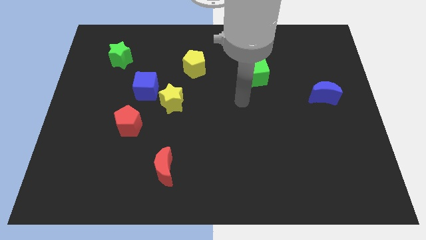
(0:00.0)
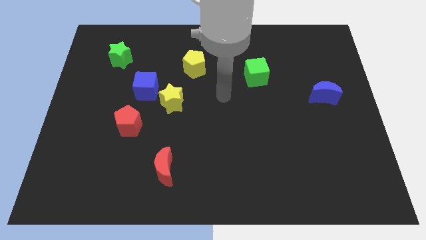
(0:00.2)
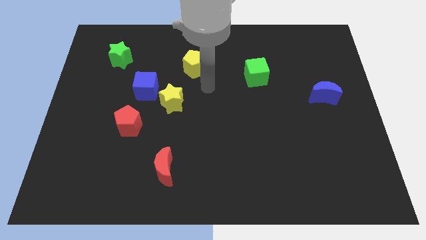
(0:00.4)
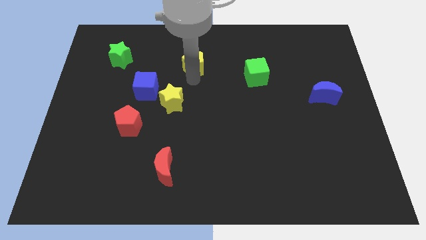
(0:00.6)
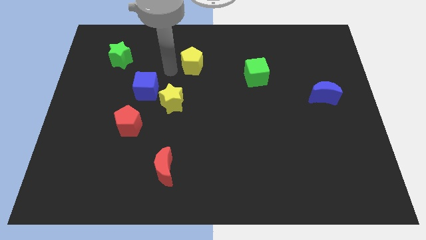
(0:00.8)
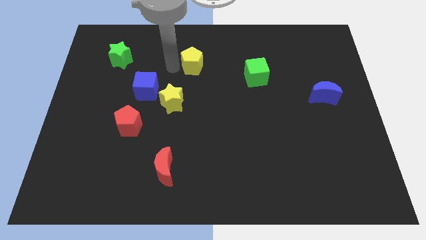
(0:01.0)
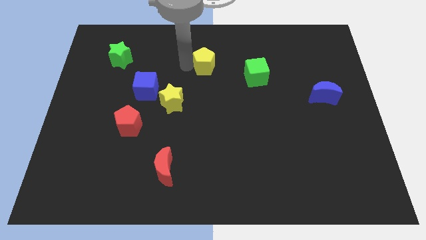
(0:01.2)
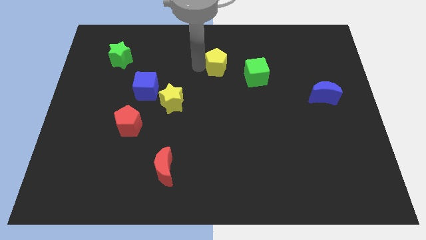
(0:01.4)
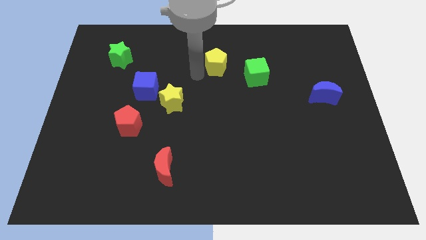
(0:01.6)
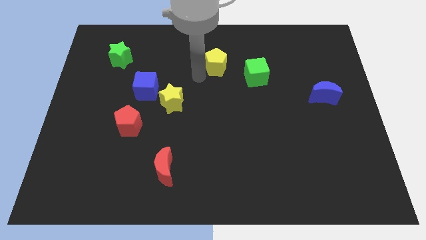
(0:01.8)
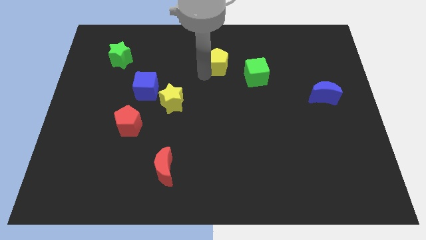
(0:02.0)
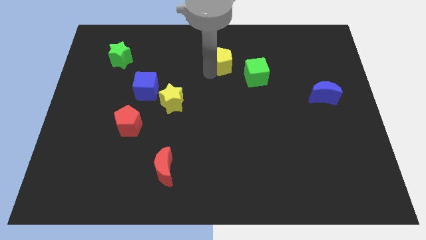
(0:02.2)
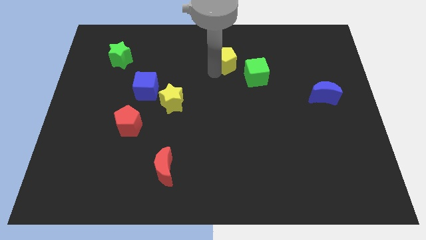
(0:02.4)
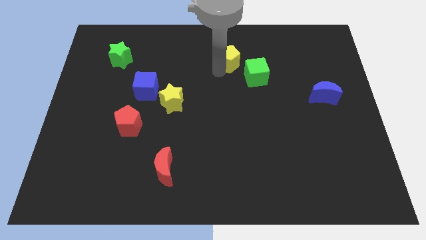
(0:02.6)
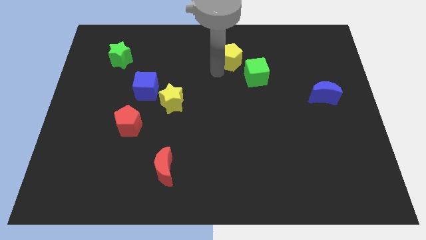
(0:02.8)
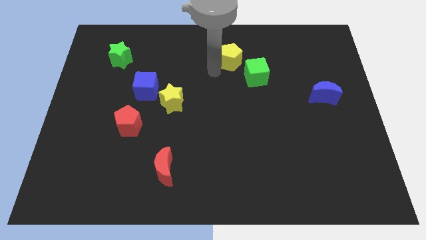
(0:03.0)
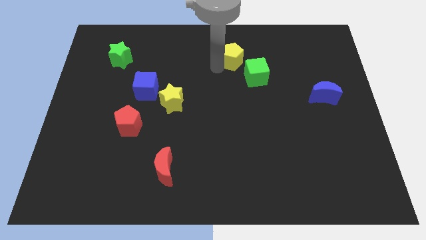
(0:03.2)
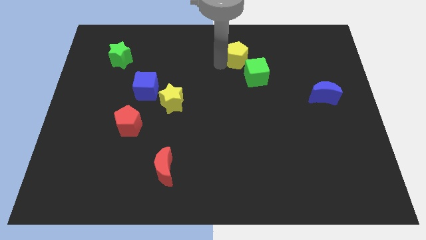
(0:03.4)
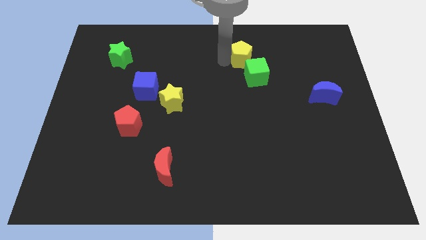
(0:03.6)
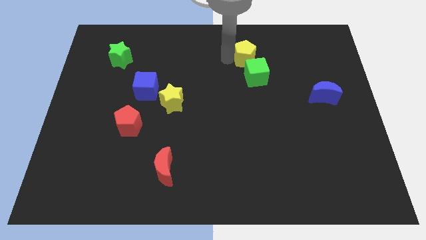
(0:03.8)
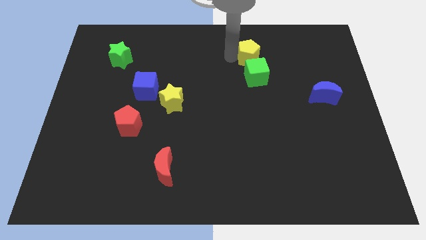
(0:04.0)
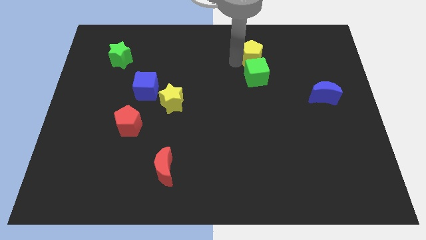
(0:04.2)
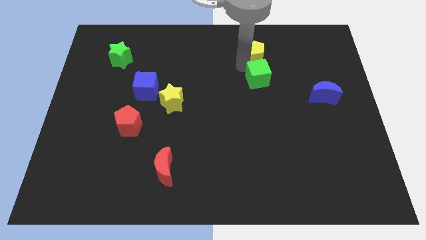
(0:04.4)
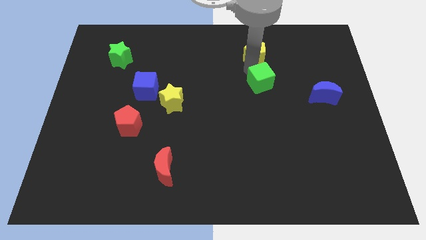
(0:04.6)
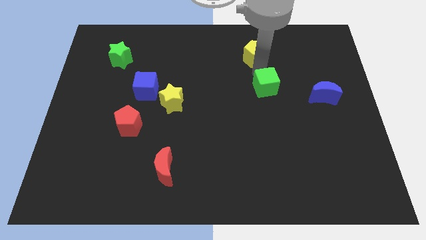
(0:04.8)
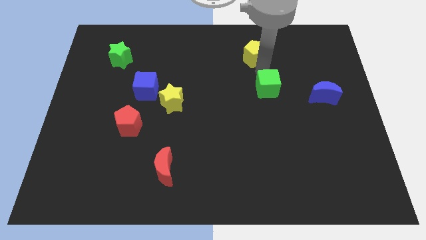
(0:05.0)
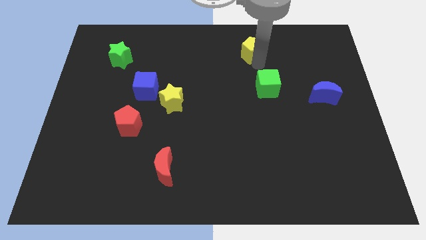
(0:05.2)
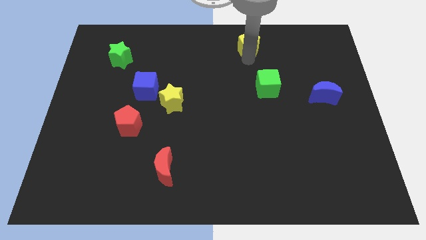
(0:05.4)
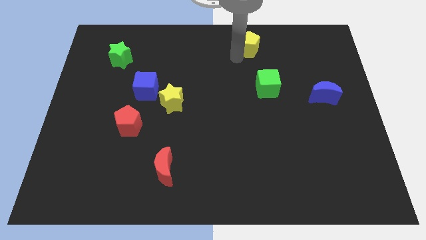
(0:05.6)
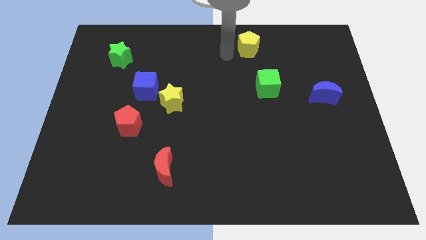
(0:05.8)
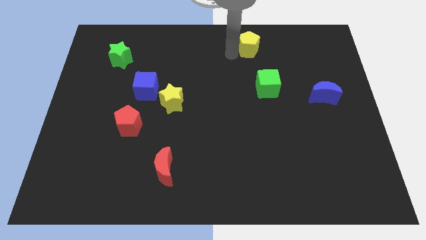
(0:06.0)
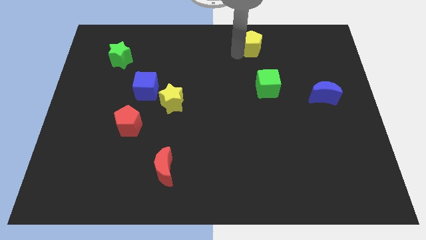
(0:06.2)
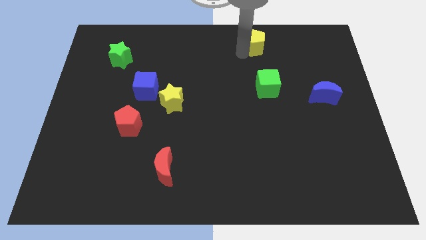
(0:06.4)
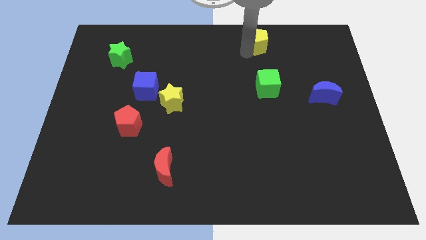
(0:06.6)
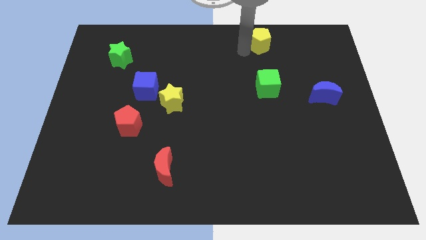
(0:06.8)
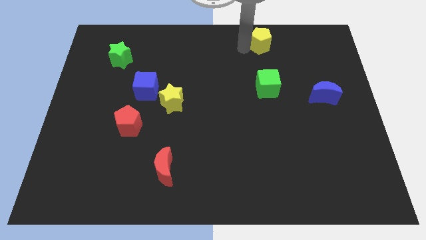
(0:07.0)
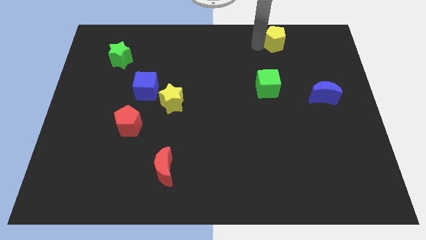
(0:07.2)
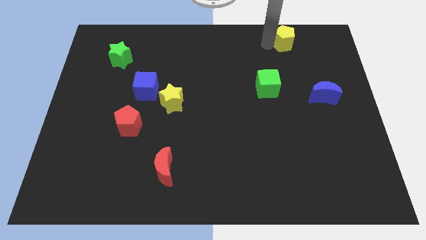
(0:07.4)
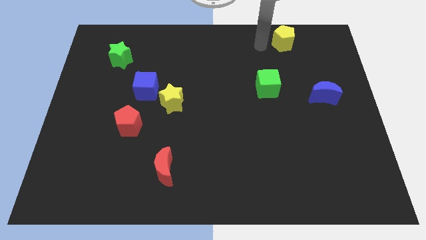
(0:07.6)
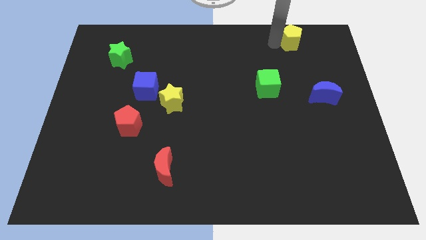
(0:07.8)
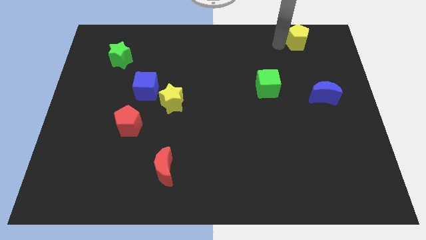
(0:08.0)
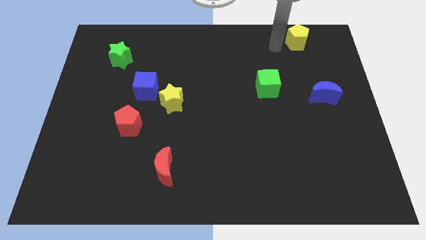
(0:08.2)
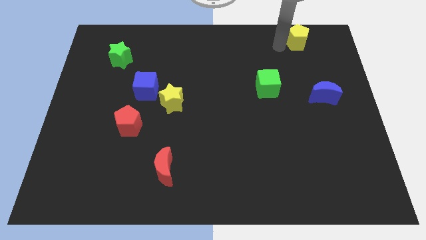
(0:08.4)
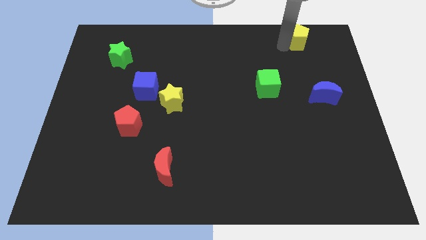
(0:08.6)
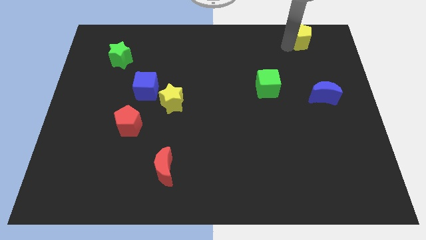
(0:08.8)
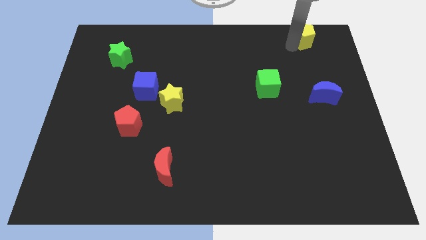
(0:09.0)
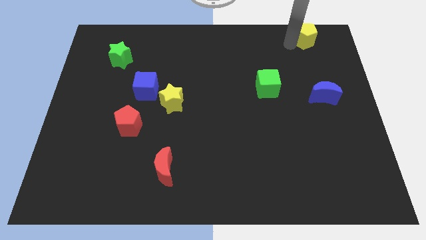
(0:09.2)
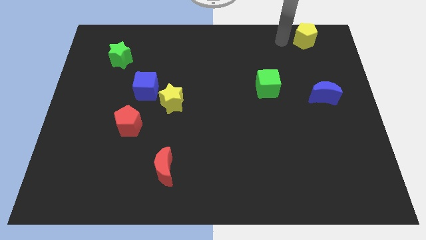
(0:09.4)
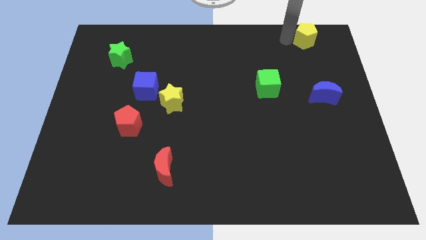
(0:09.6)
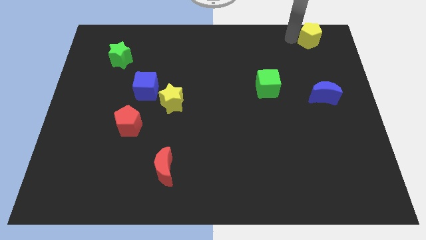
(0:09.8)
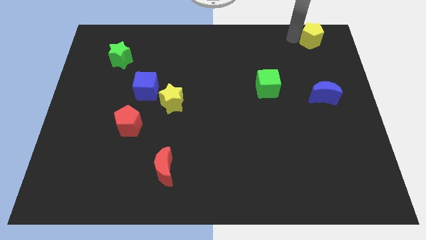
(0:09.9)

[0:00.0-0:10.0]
move the yellow pentagon to the upper right corner

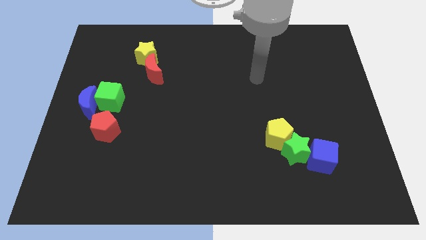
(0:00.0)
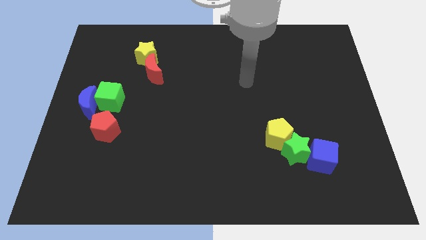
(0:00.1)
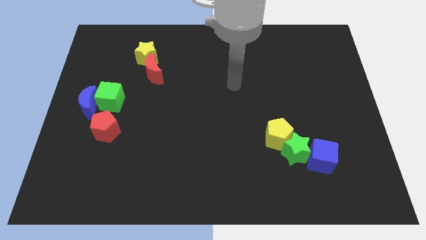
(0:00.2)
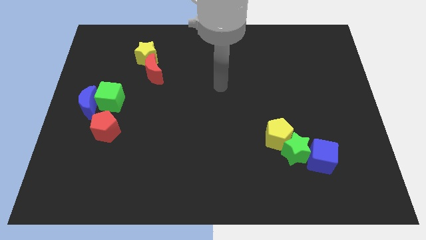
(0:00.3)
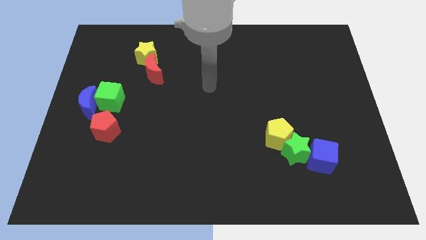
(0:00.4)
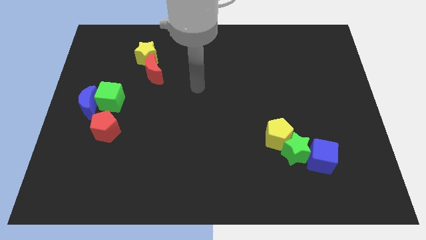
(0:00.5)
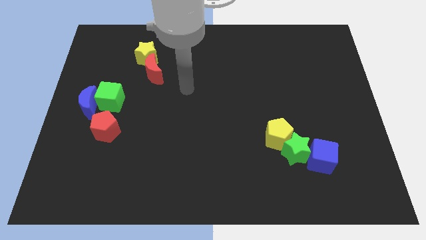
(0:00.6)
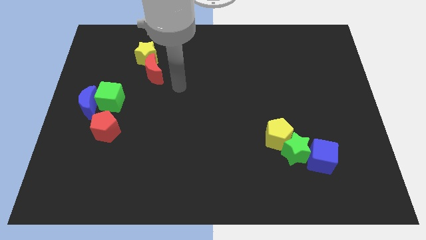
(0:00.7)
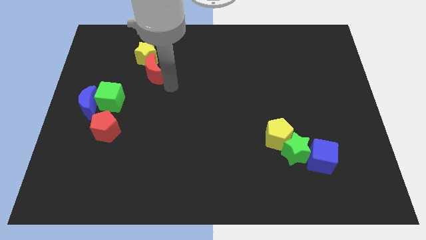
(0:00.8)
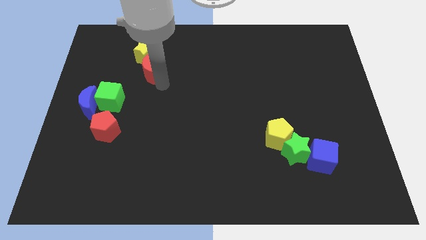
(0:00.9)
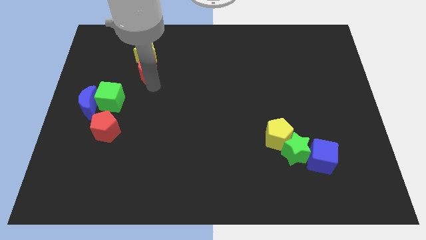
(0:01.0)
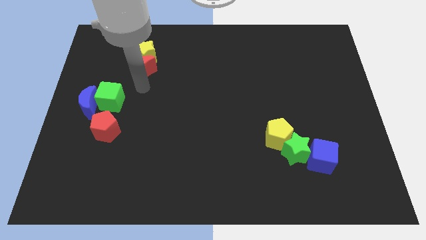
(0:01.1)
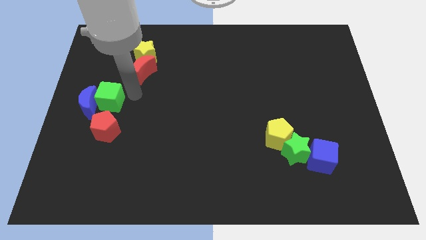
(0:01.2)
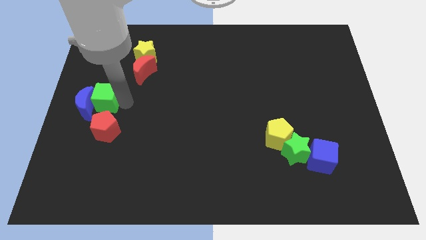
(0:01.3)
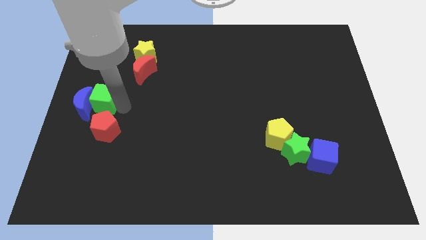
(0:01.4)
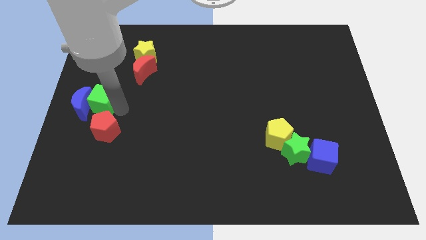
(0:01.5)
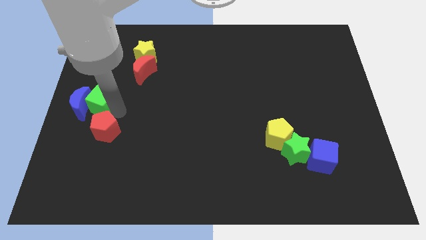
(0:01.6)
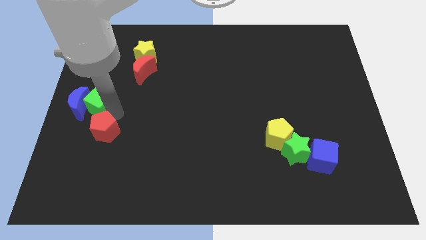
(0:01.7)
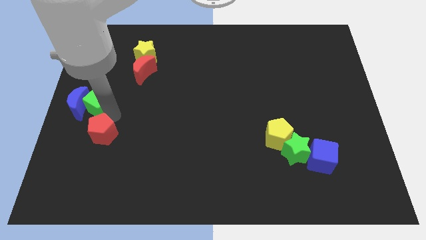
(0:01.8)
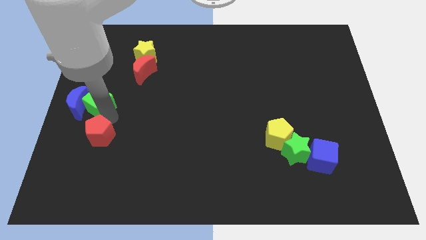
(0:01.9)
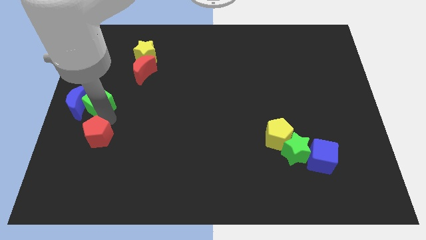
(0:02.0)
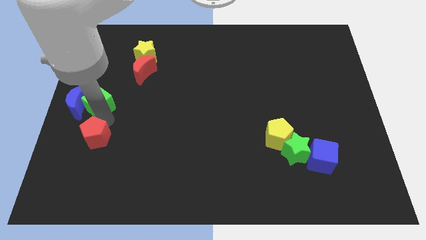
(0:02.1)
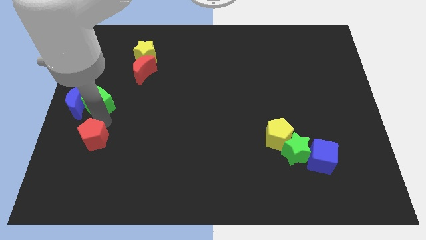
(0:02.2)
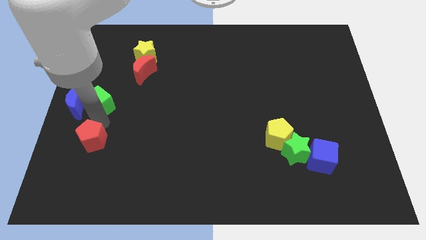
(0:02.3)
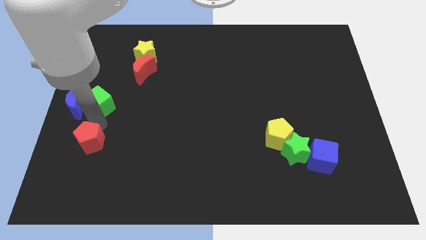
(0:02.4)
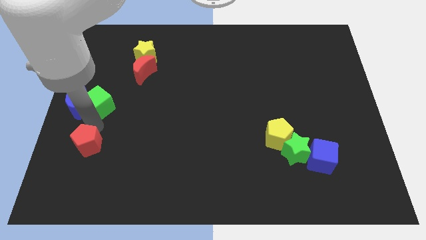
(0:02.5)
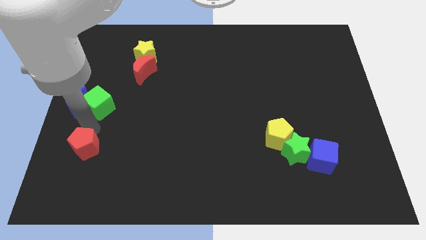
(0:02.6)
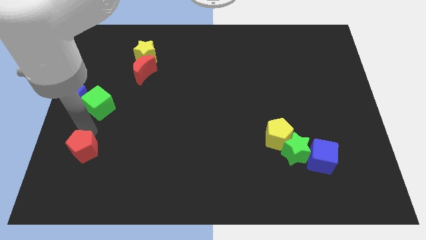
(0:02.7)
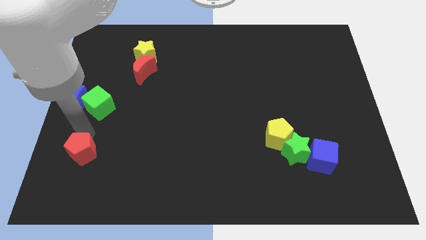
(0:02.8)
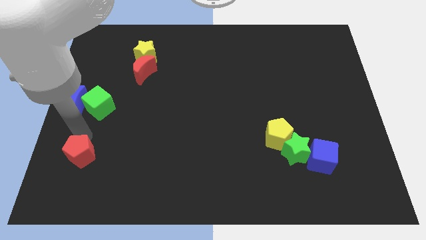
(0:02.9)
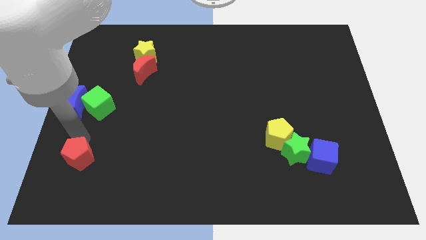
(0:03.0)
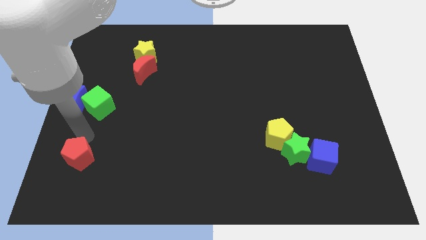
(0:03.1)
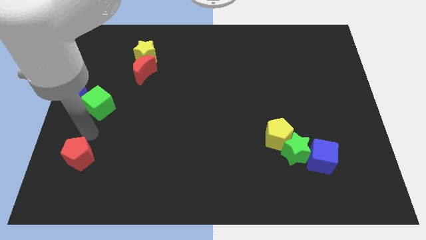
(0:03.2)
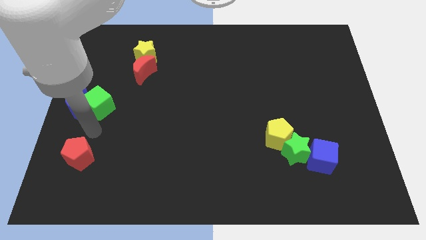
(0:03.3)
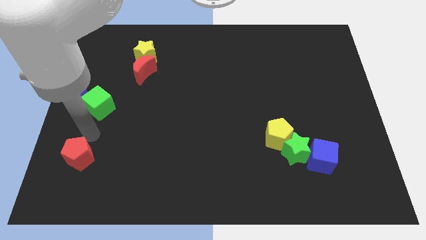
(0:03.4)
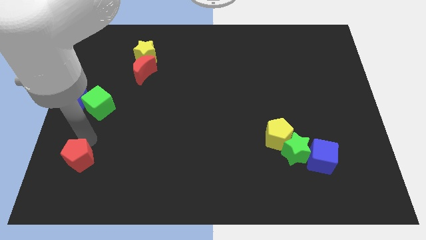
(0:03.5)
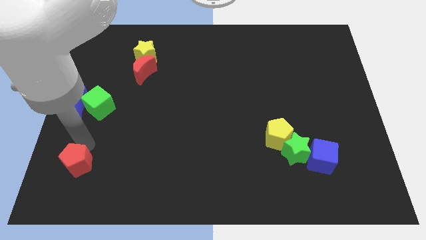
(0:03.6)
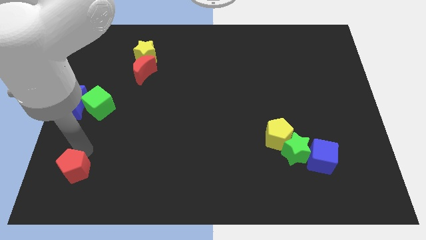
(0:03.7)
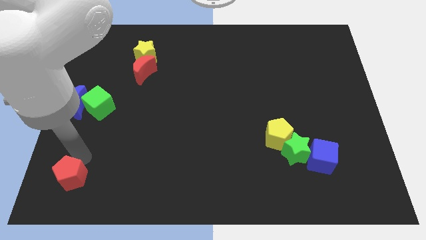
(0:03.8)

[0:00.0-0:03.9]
push the red pentagon to the lower left corner
